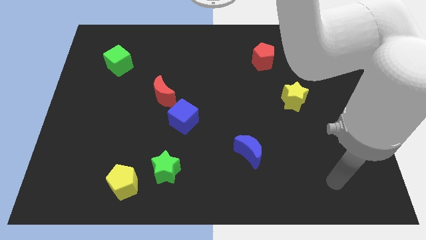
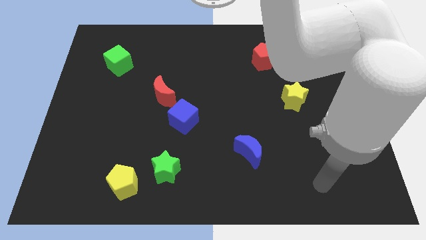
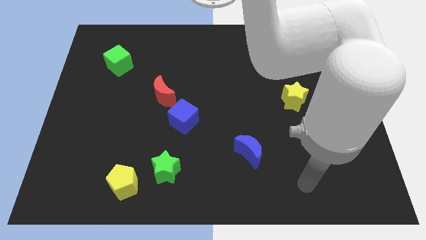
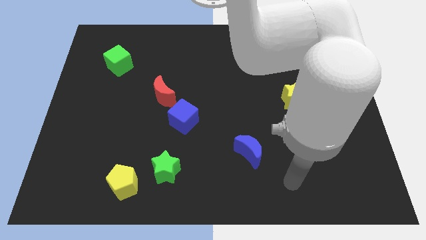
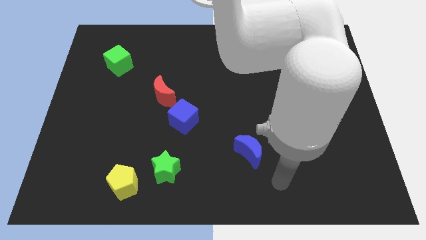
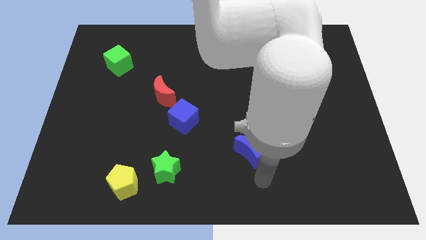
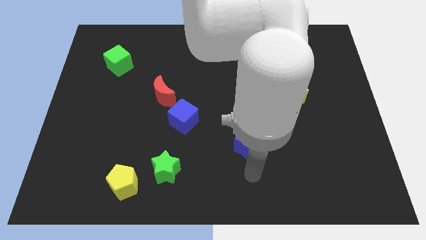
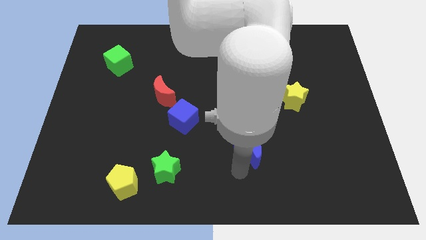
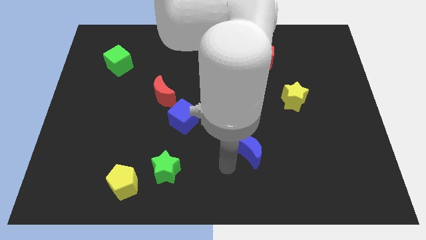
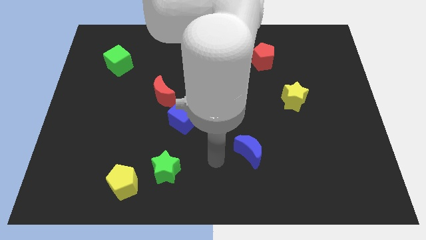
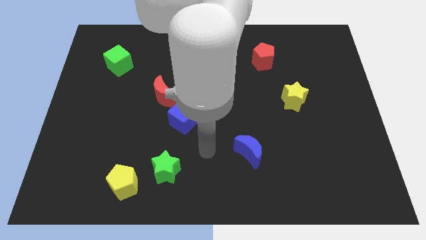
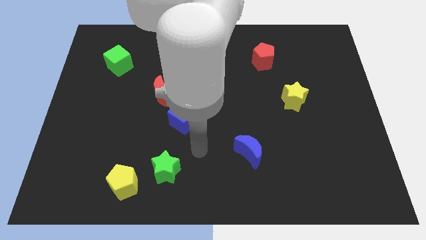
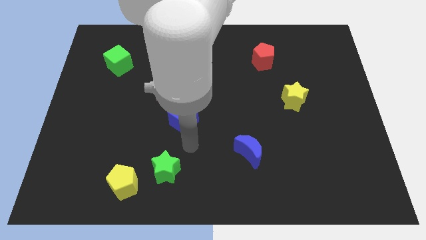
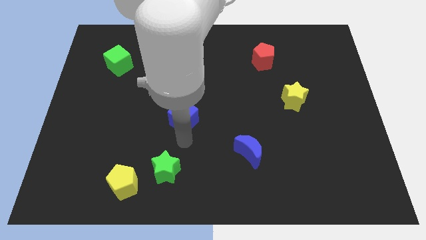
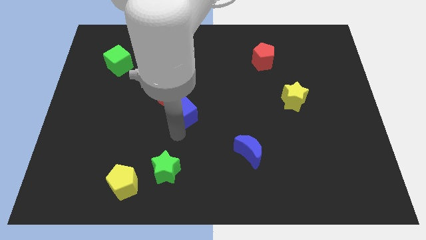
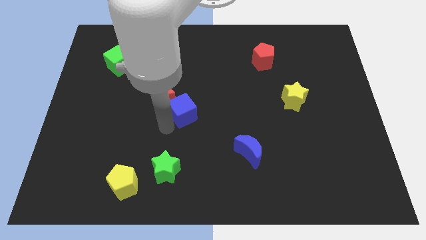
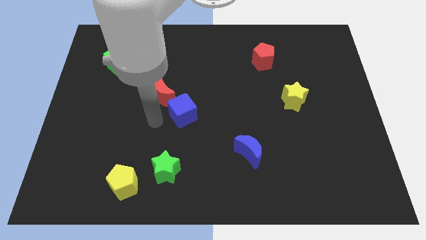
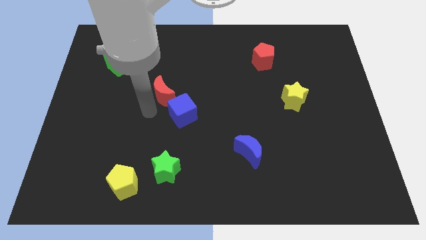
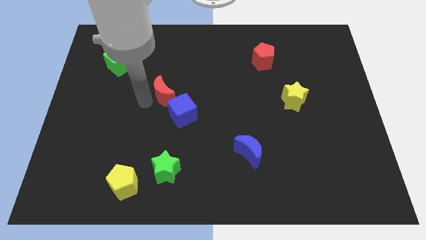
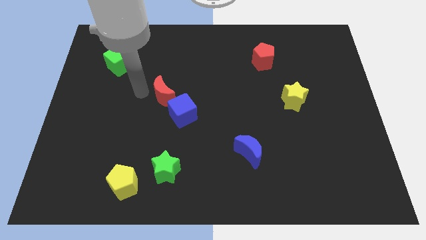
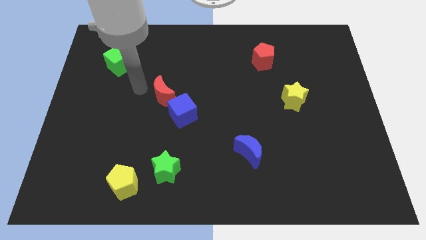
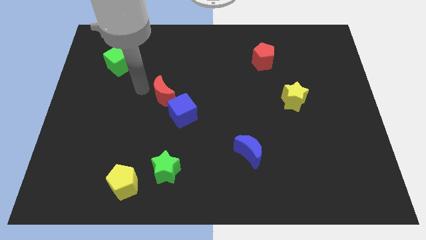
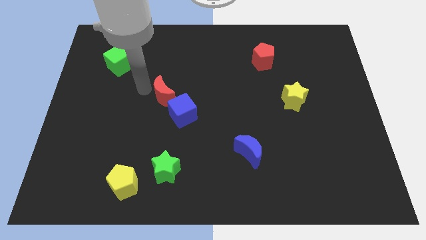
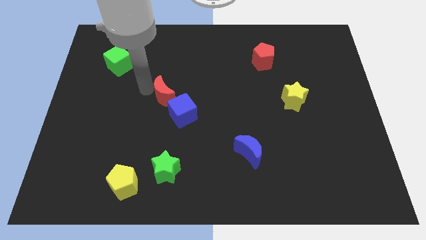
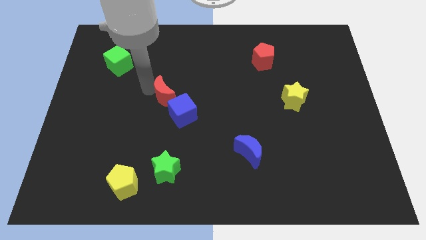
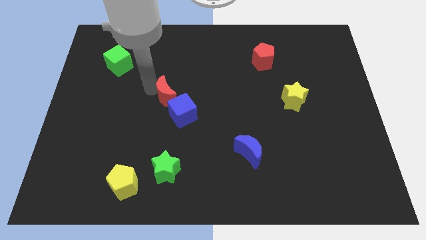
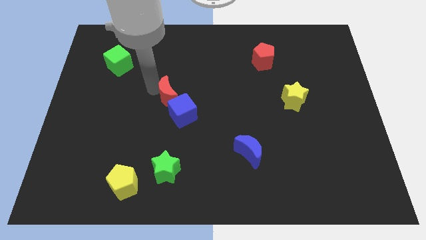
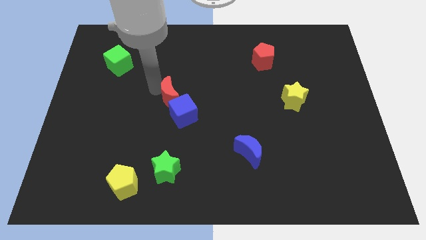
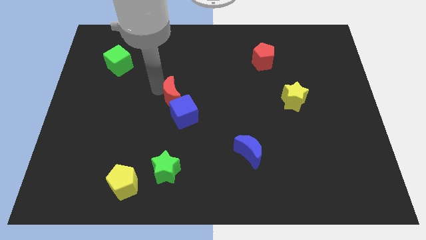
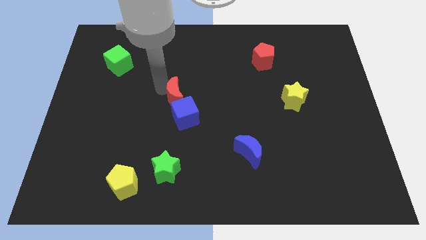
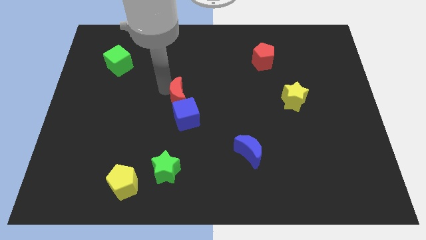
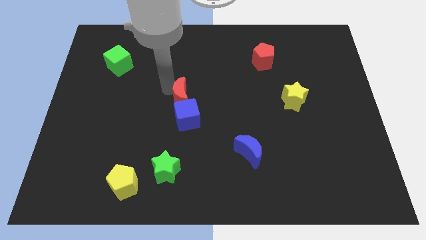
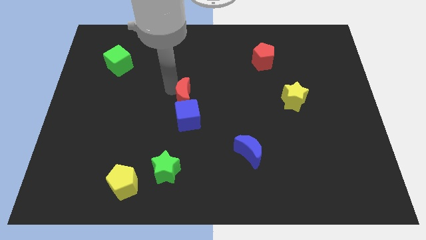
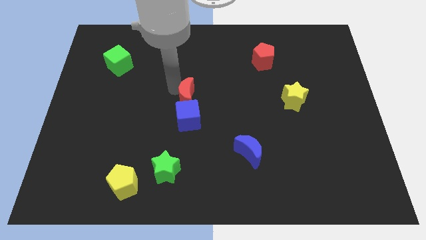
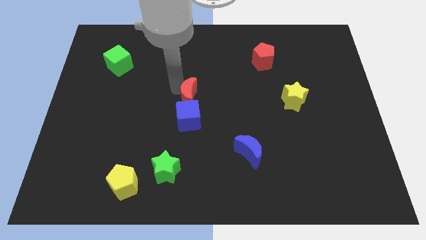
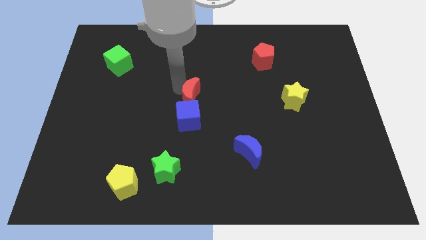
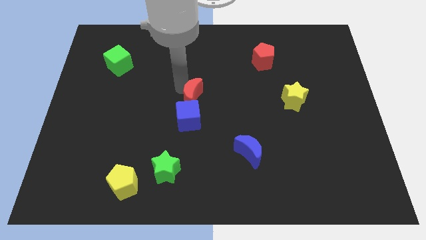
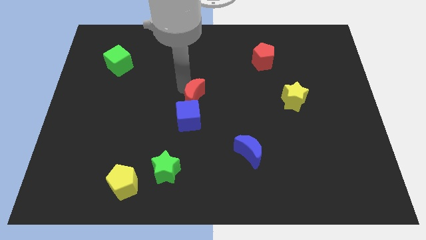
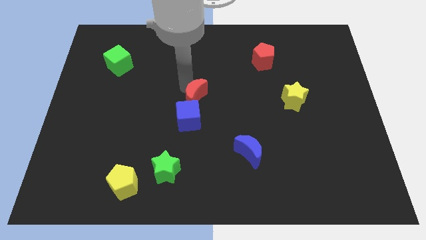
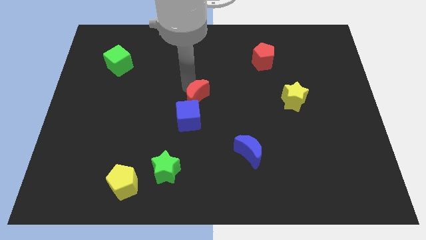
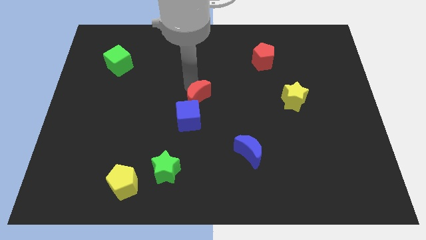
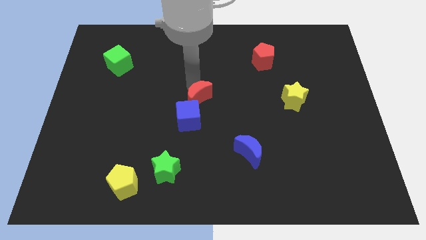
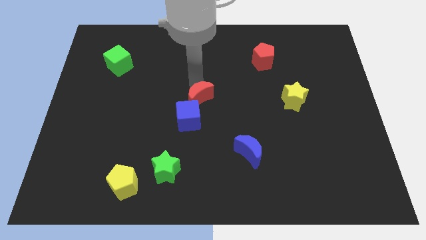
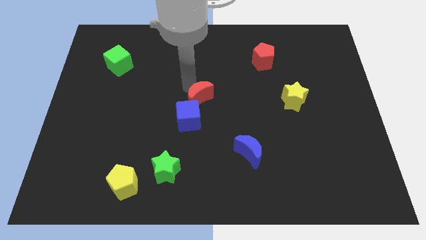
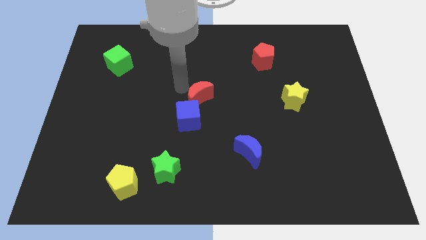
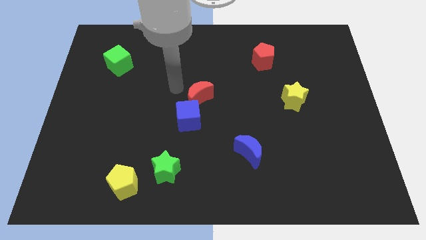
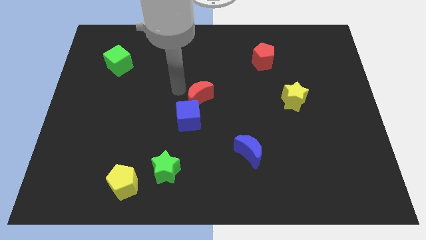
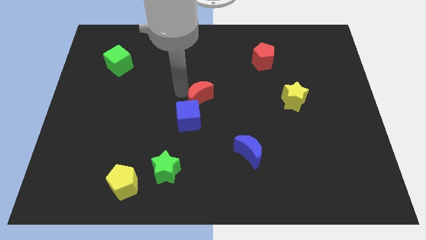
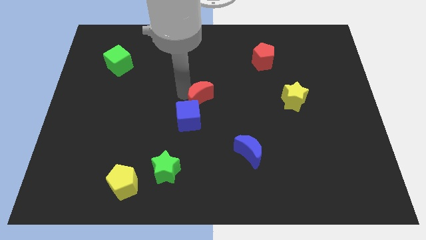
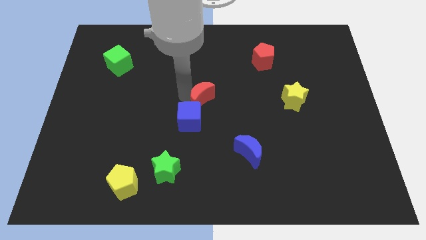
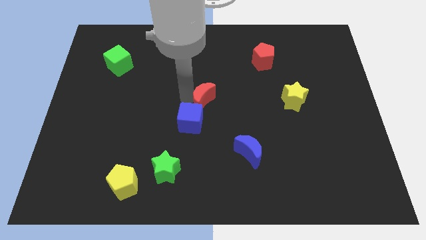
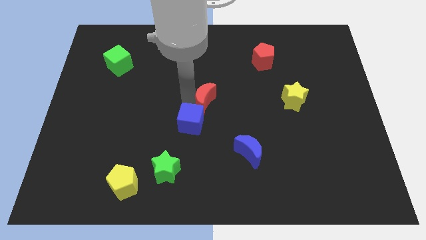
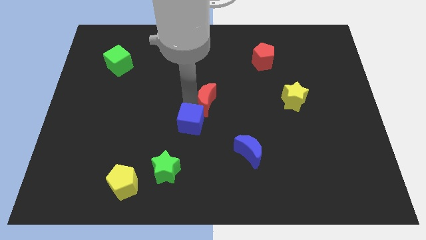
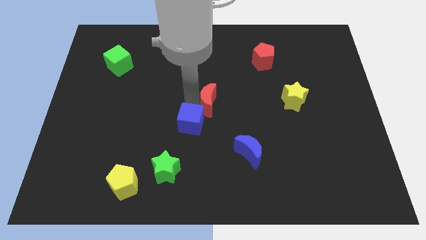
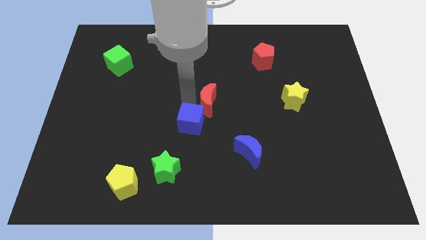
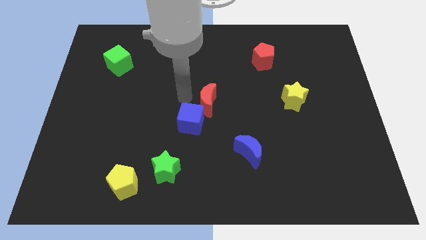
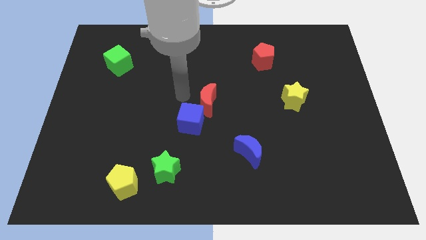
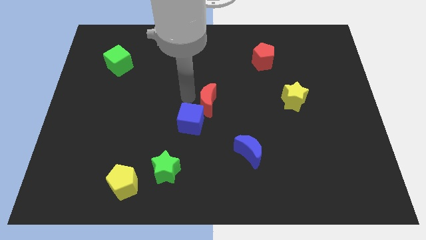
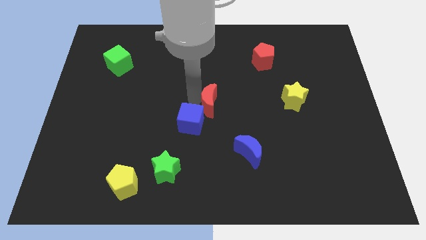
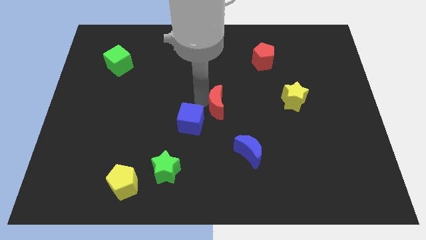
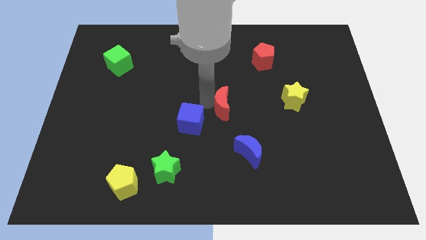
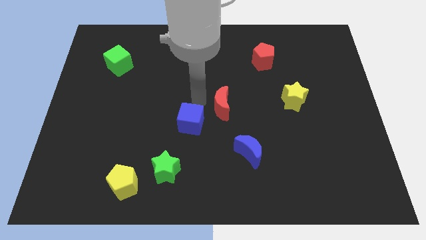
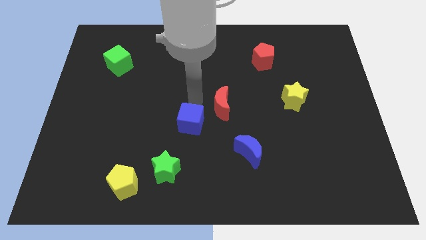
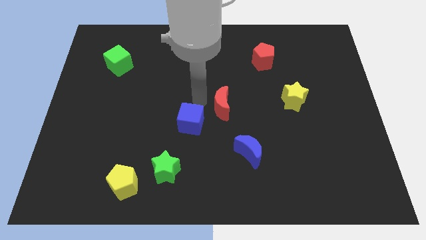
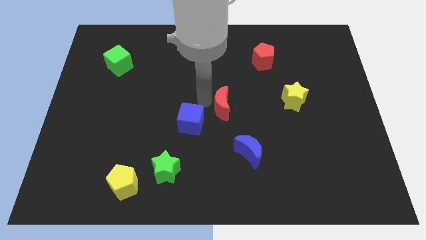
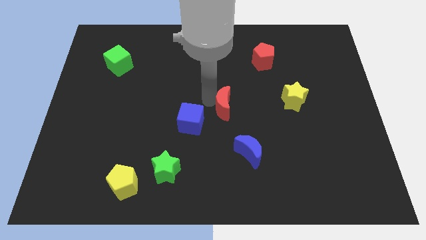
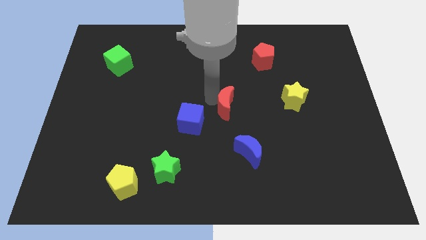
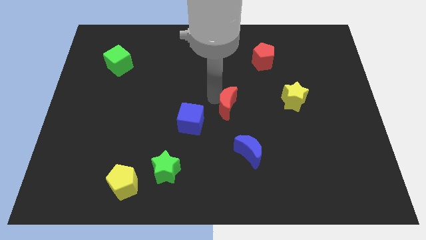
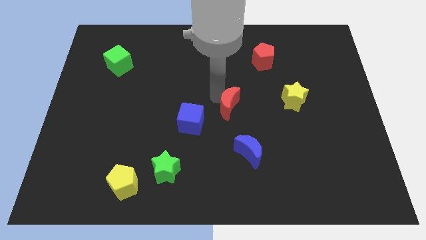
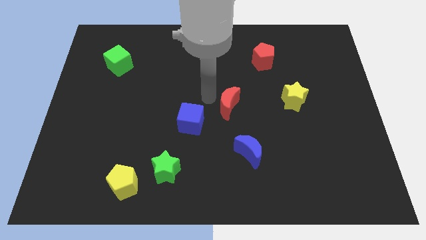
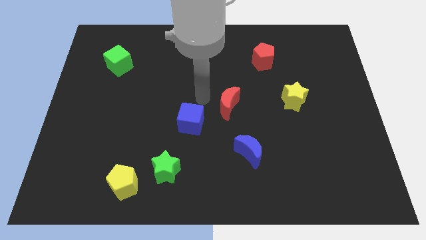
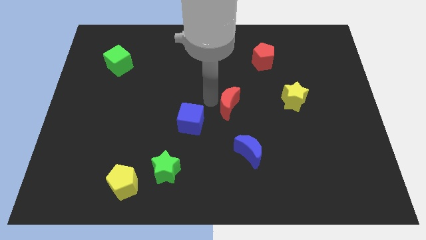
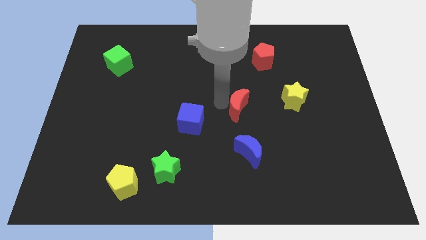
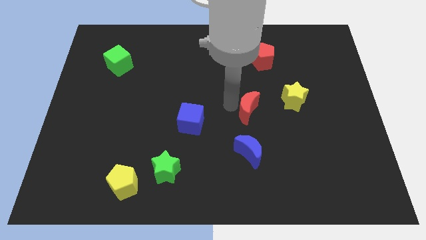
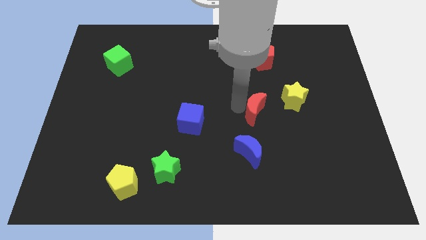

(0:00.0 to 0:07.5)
put the red moon to the bottom left side of the yellow star
